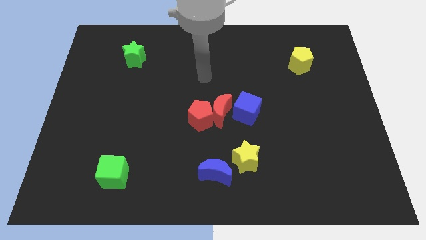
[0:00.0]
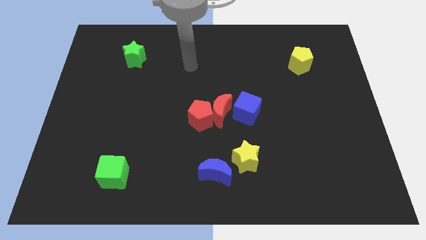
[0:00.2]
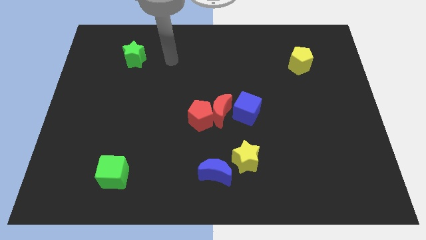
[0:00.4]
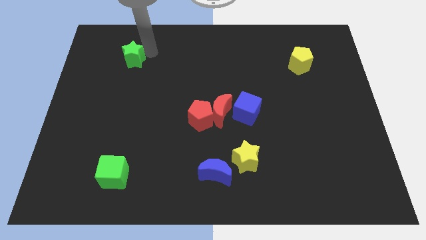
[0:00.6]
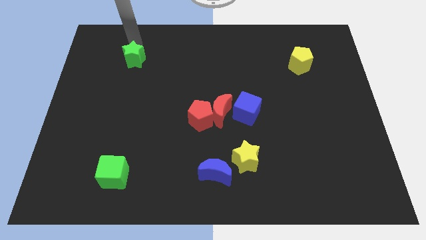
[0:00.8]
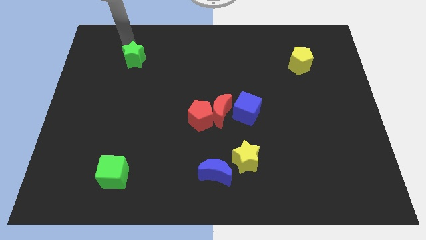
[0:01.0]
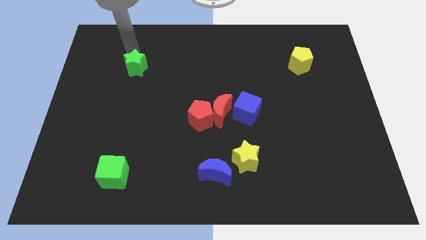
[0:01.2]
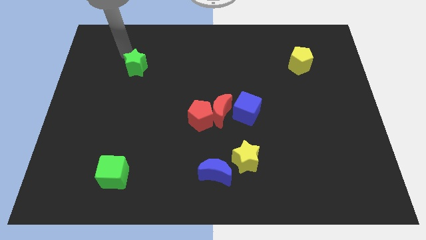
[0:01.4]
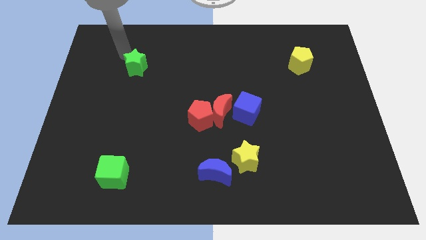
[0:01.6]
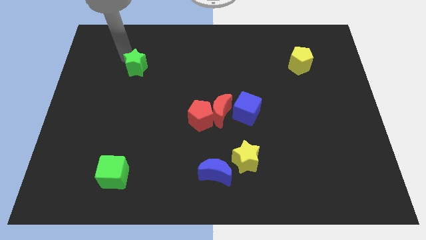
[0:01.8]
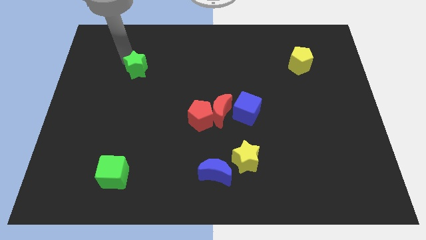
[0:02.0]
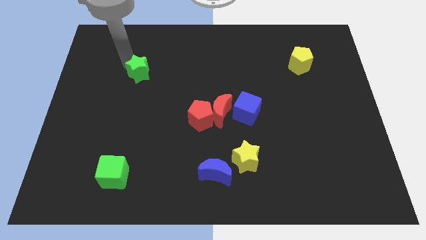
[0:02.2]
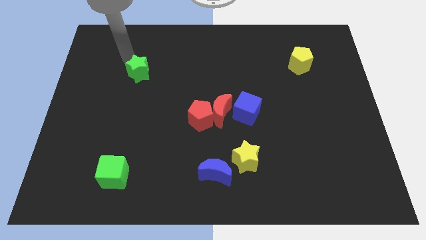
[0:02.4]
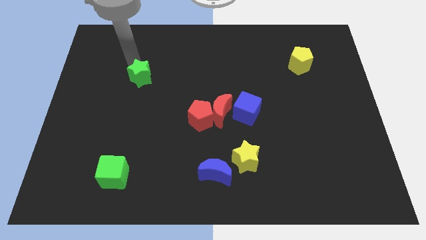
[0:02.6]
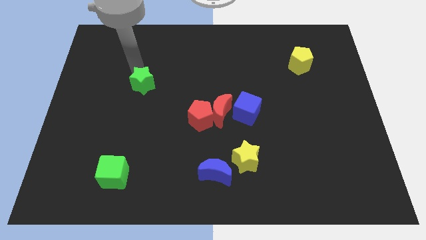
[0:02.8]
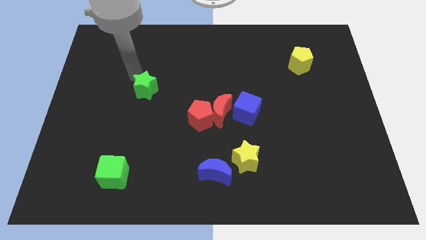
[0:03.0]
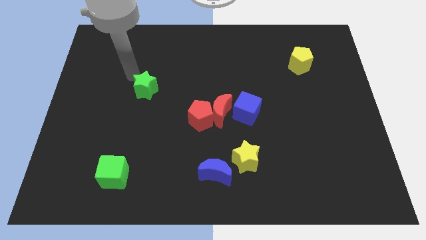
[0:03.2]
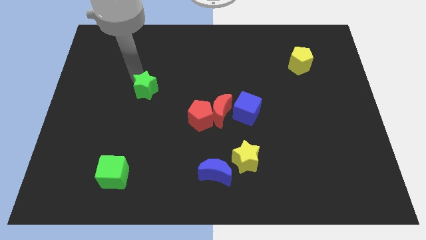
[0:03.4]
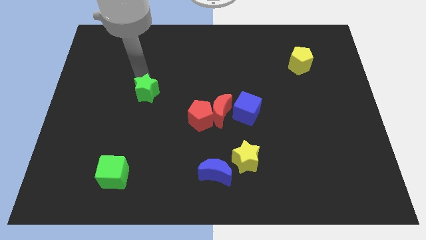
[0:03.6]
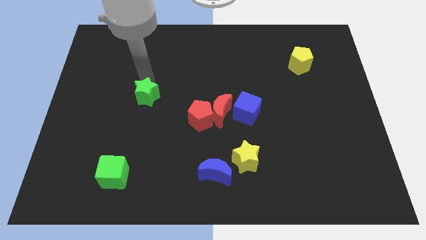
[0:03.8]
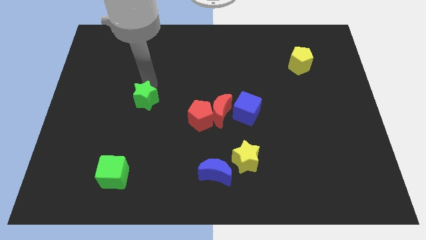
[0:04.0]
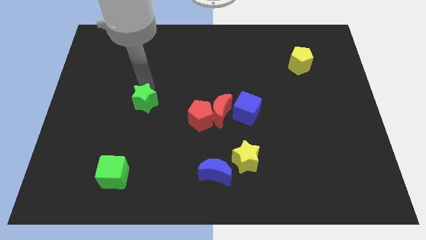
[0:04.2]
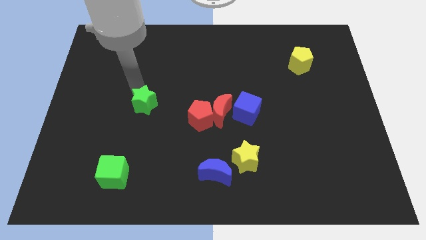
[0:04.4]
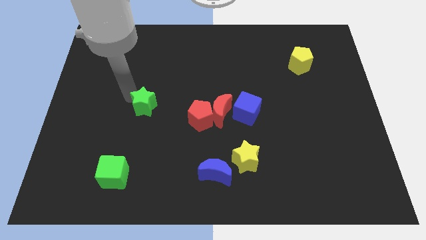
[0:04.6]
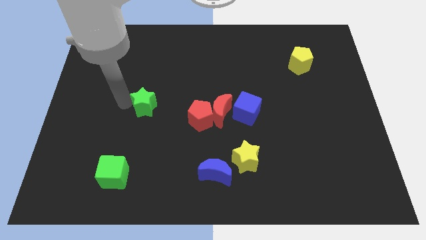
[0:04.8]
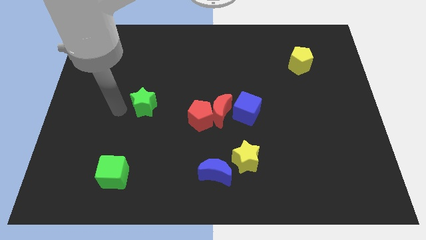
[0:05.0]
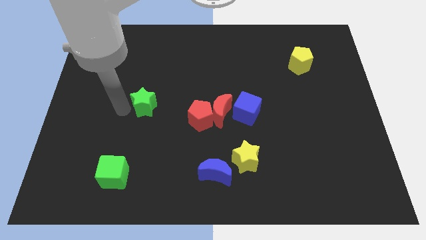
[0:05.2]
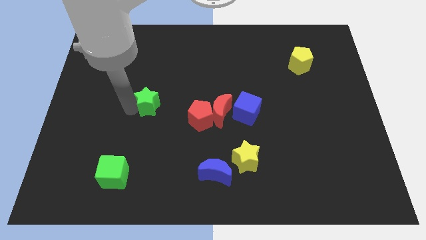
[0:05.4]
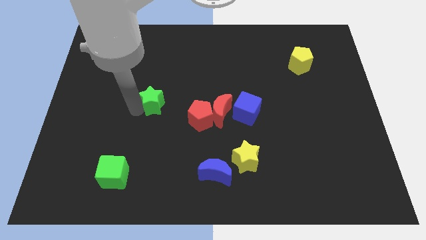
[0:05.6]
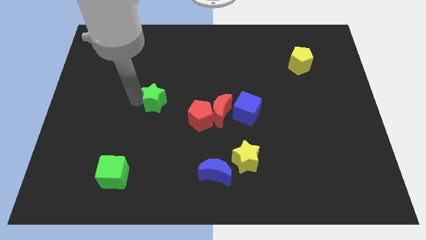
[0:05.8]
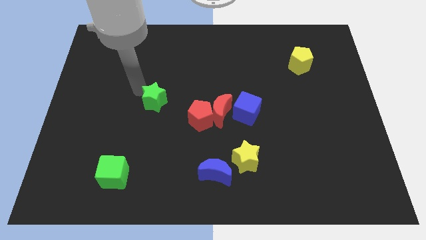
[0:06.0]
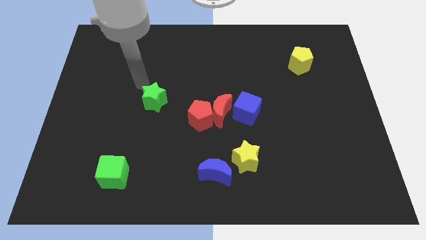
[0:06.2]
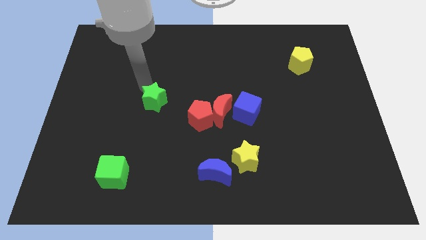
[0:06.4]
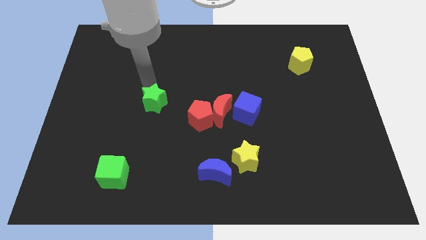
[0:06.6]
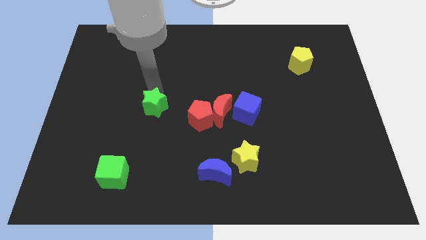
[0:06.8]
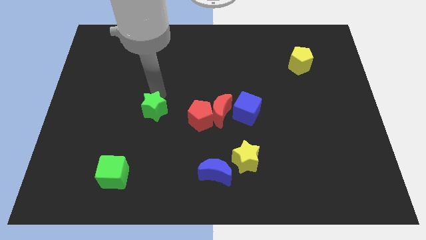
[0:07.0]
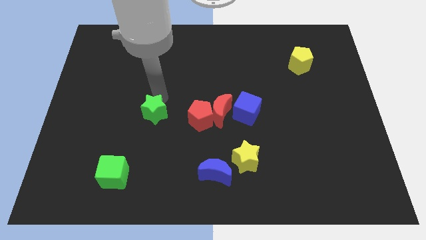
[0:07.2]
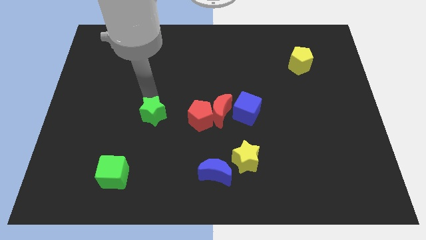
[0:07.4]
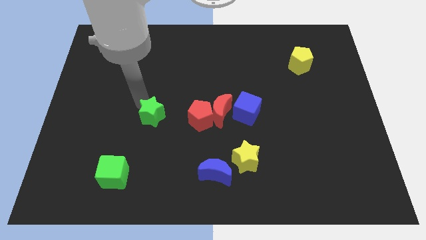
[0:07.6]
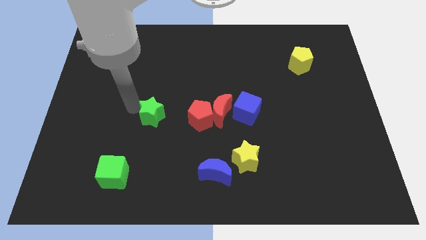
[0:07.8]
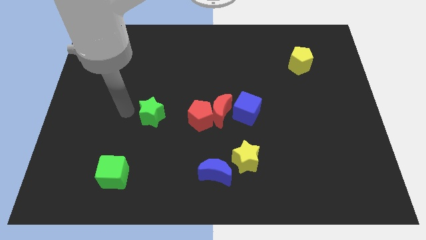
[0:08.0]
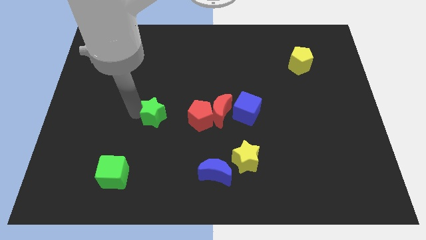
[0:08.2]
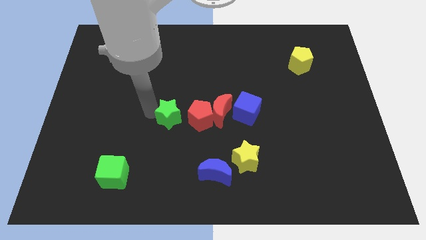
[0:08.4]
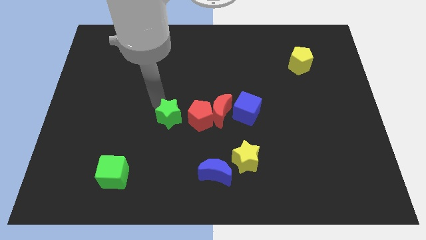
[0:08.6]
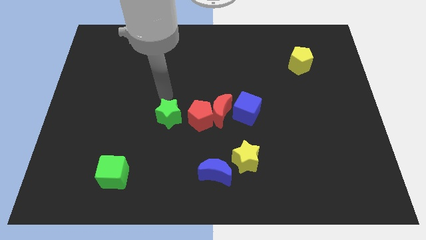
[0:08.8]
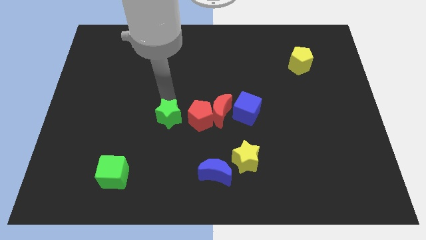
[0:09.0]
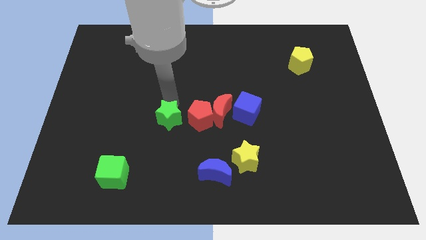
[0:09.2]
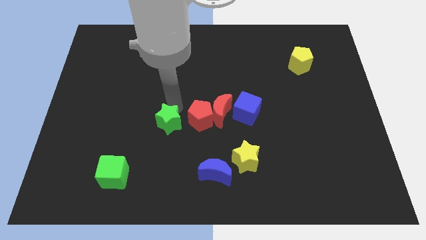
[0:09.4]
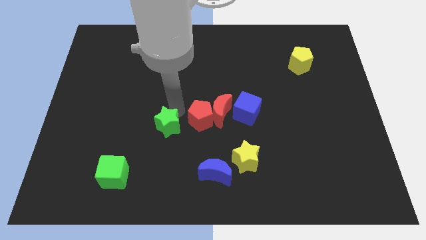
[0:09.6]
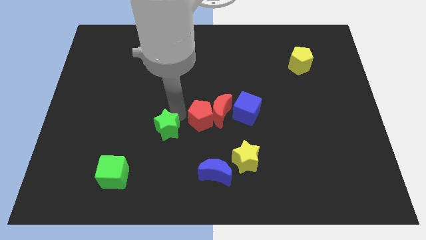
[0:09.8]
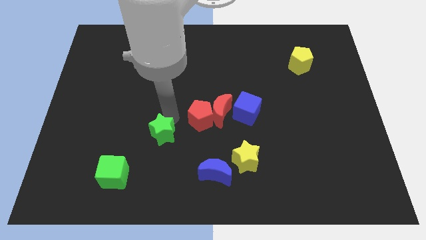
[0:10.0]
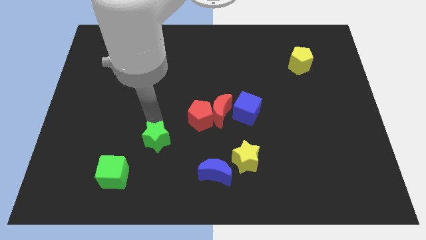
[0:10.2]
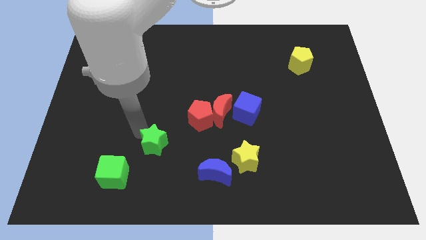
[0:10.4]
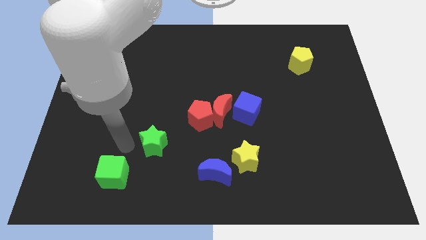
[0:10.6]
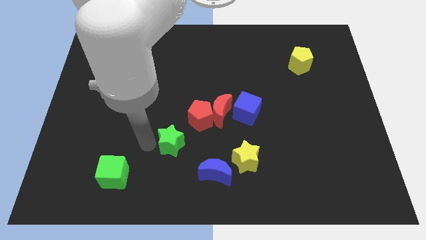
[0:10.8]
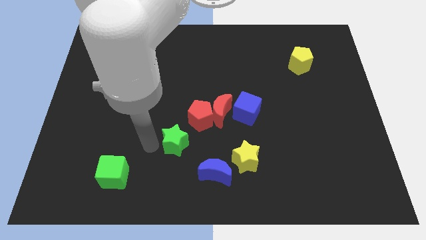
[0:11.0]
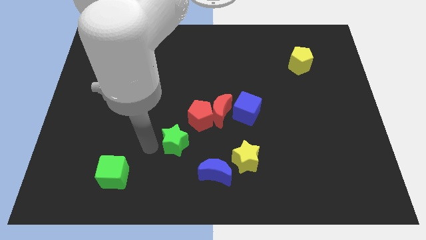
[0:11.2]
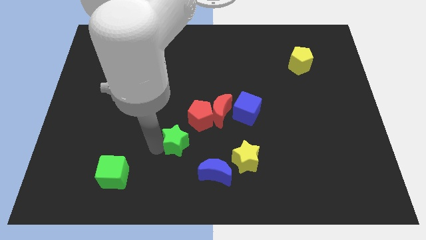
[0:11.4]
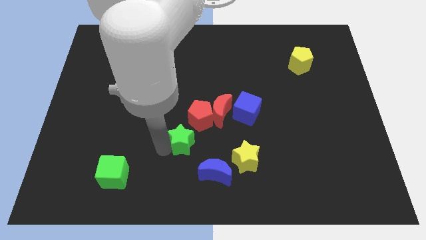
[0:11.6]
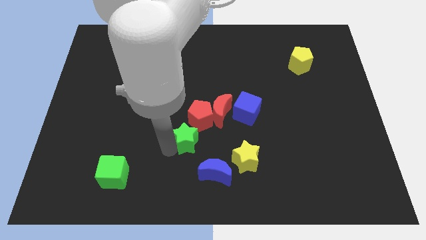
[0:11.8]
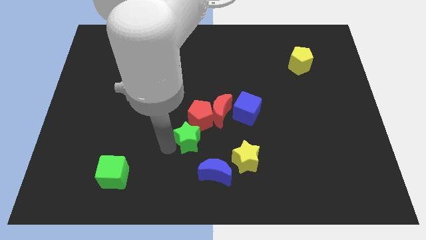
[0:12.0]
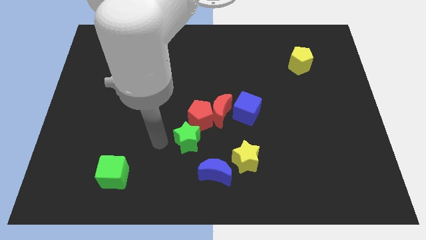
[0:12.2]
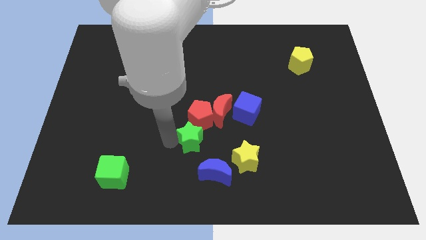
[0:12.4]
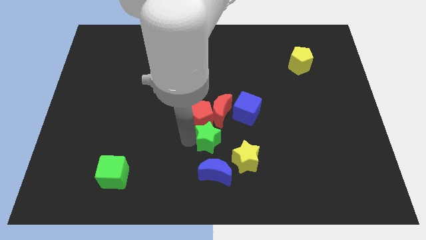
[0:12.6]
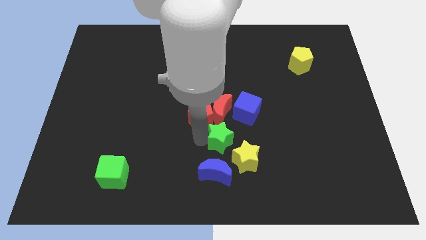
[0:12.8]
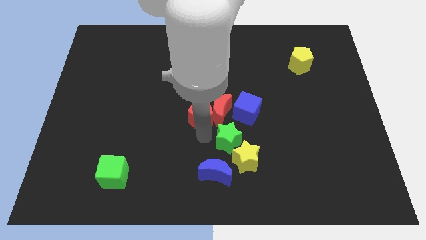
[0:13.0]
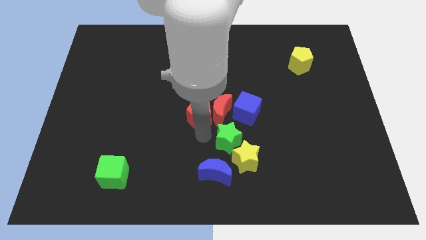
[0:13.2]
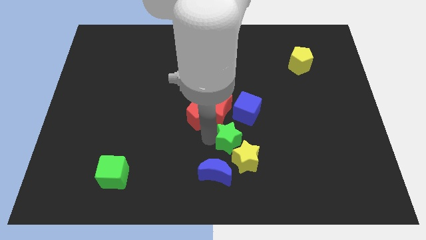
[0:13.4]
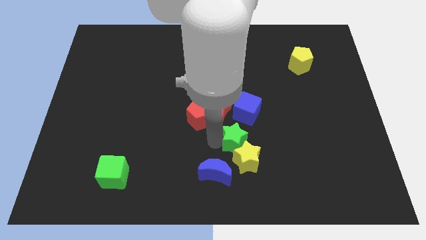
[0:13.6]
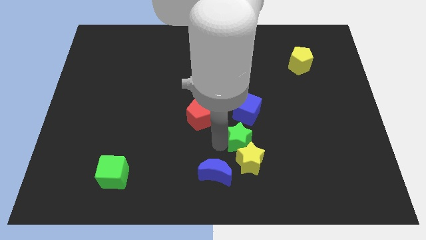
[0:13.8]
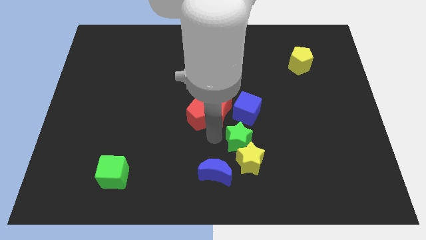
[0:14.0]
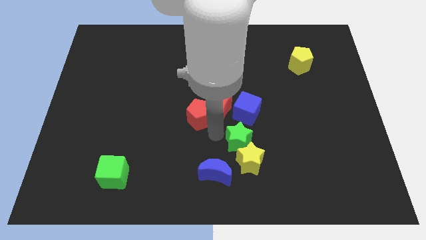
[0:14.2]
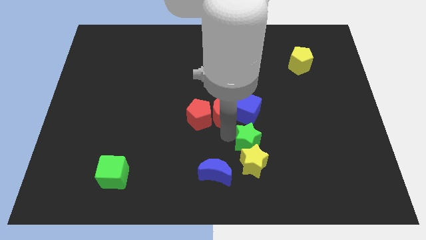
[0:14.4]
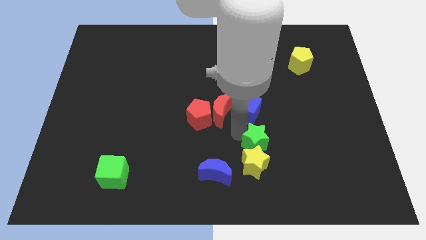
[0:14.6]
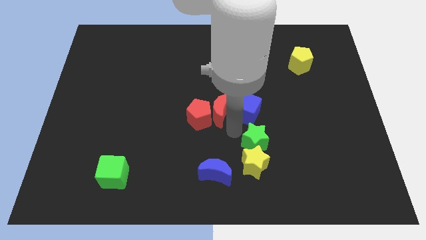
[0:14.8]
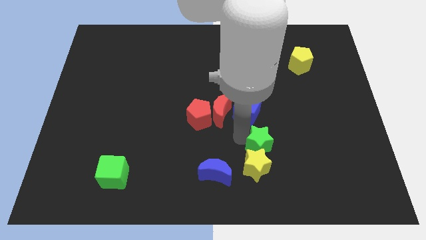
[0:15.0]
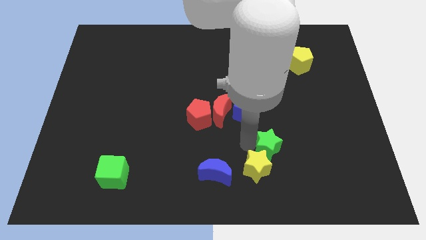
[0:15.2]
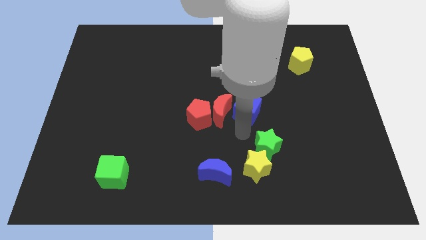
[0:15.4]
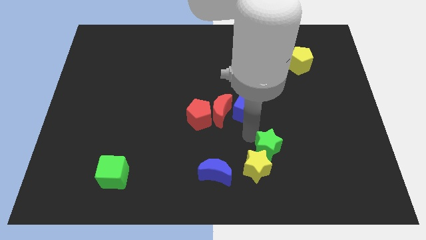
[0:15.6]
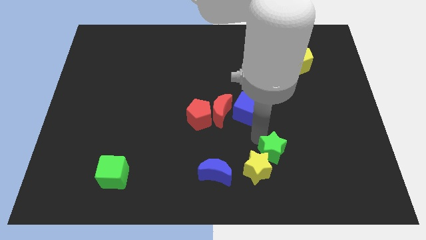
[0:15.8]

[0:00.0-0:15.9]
move the green star to the right of the yellow star
